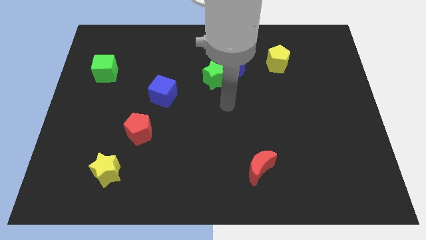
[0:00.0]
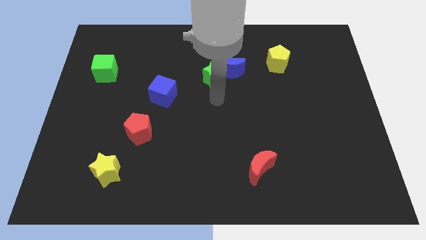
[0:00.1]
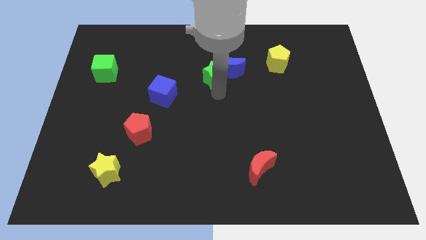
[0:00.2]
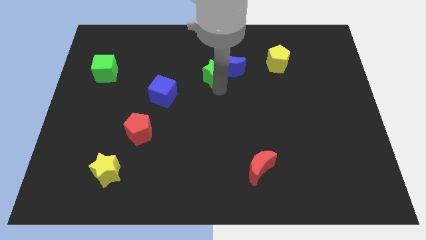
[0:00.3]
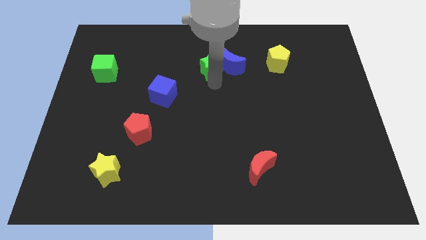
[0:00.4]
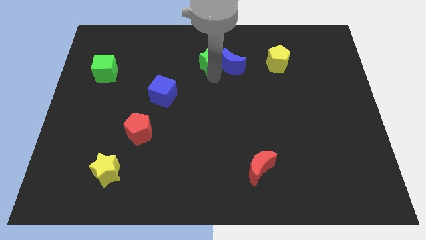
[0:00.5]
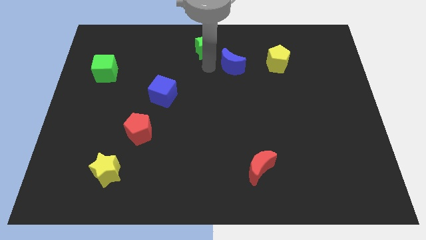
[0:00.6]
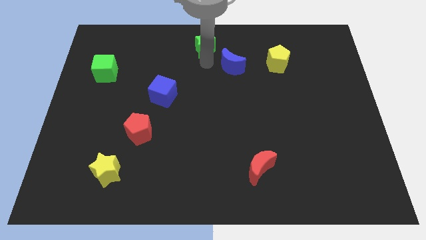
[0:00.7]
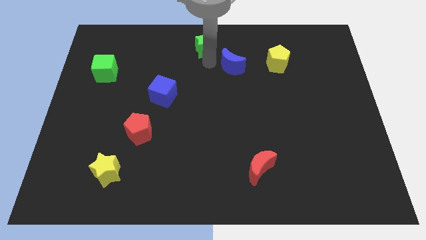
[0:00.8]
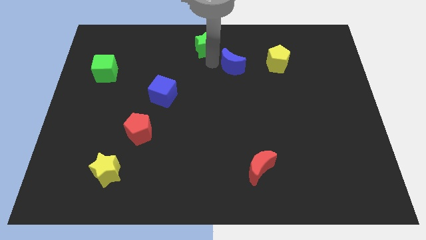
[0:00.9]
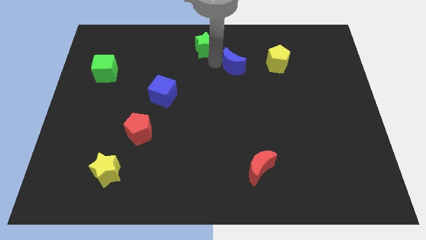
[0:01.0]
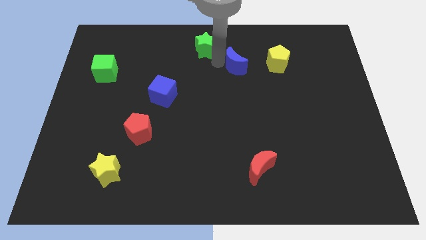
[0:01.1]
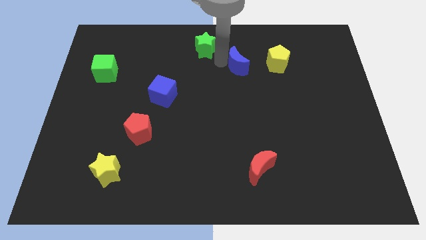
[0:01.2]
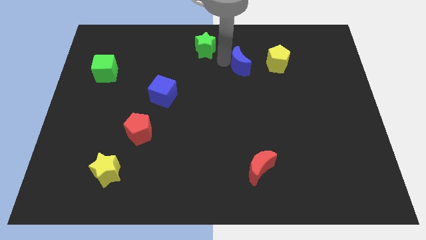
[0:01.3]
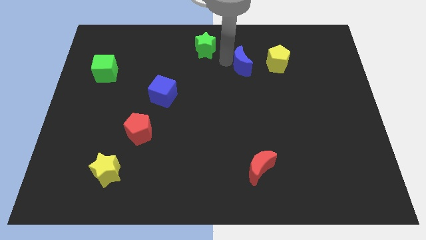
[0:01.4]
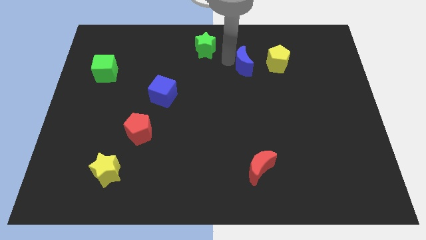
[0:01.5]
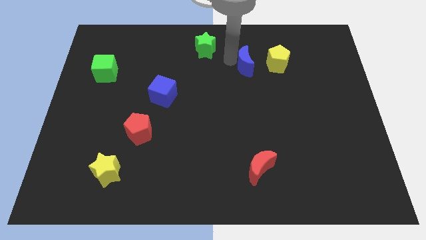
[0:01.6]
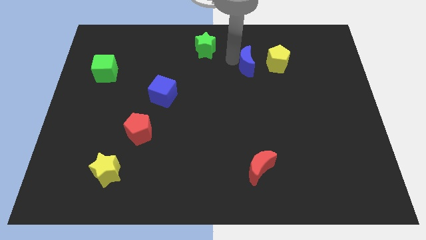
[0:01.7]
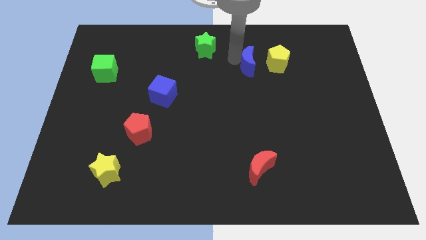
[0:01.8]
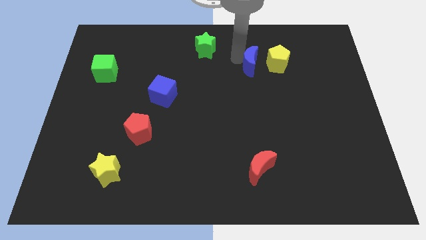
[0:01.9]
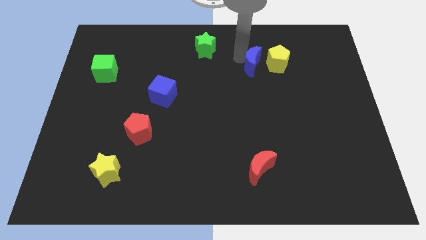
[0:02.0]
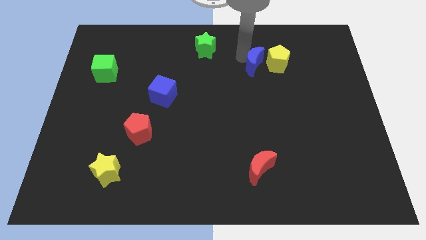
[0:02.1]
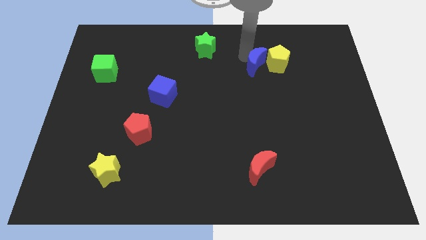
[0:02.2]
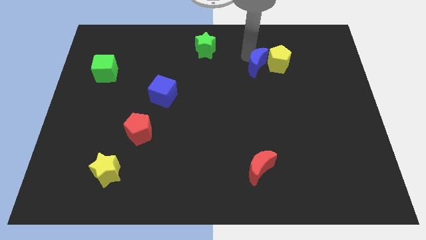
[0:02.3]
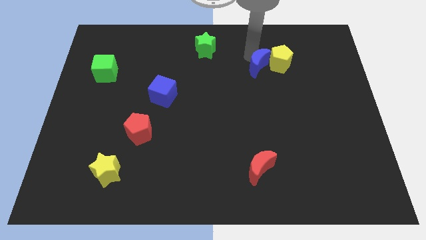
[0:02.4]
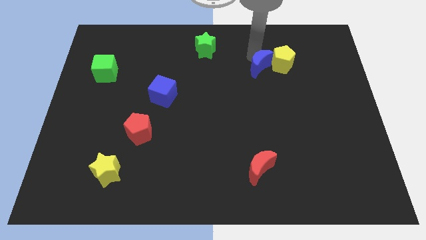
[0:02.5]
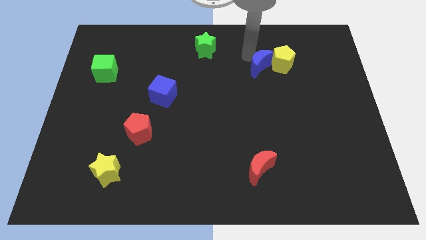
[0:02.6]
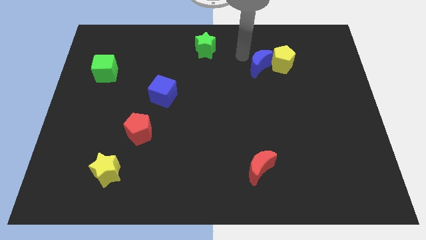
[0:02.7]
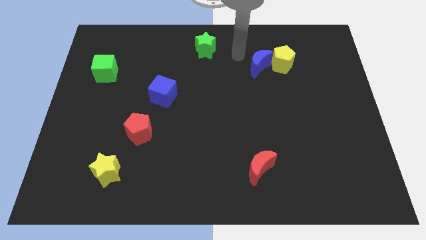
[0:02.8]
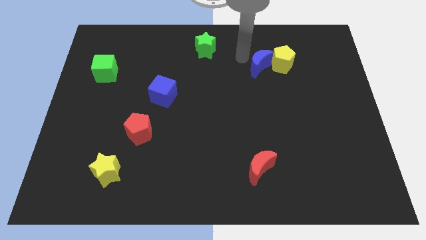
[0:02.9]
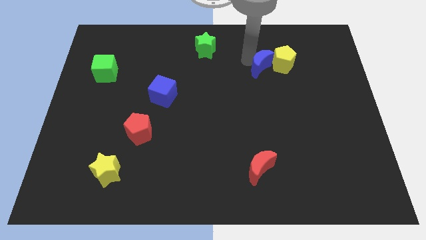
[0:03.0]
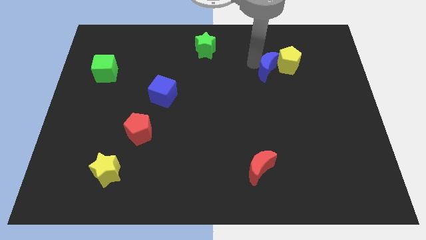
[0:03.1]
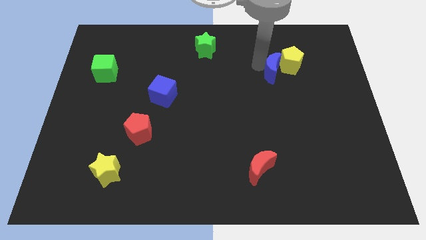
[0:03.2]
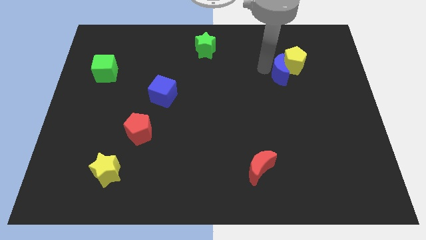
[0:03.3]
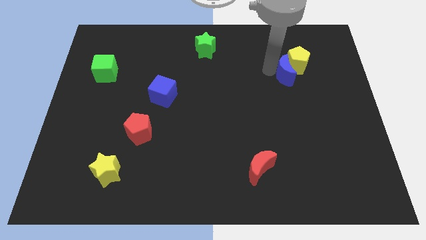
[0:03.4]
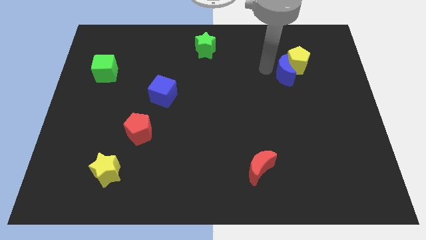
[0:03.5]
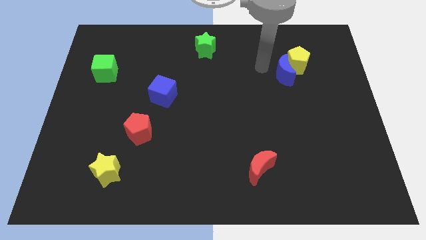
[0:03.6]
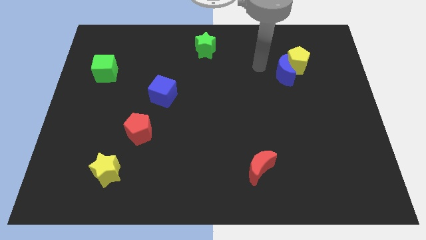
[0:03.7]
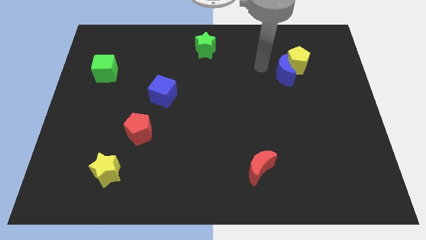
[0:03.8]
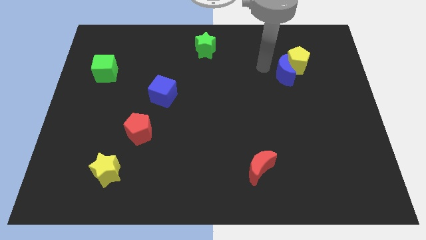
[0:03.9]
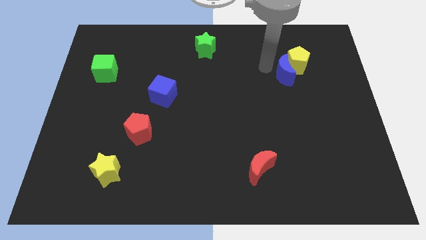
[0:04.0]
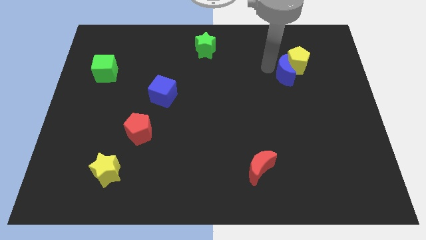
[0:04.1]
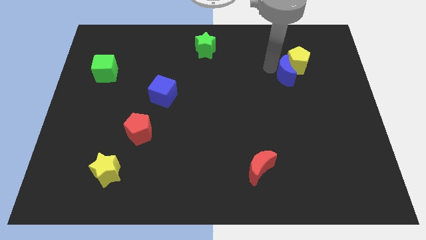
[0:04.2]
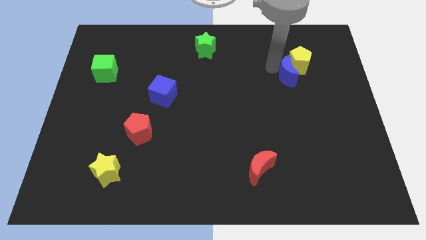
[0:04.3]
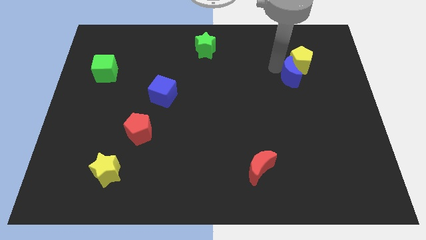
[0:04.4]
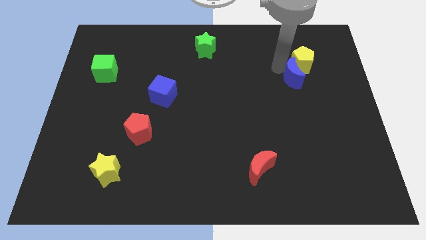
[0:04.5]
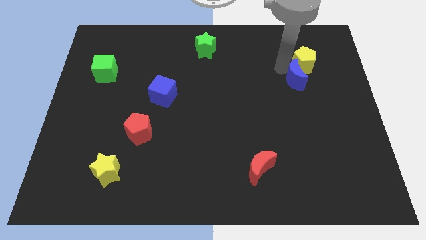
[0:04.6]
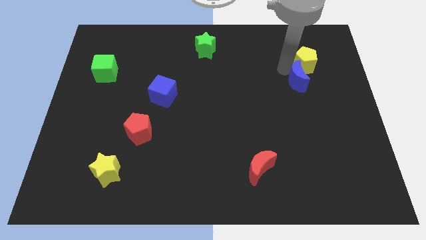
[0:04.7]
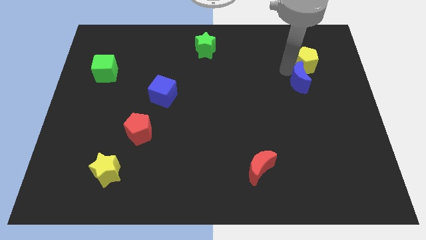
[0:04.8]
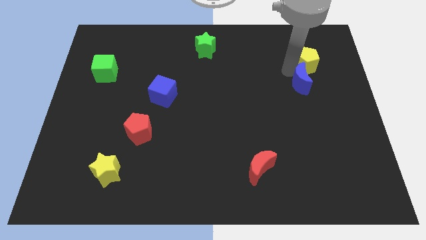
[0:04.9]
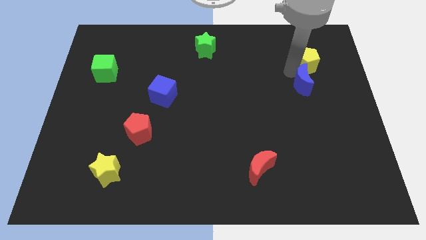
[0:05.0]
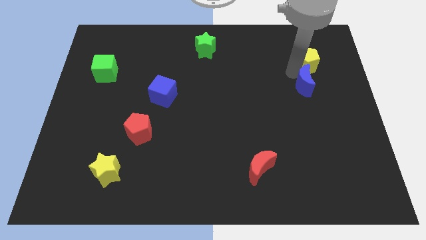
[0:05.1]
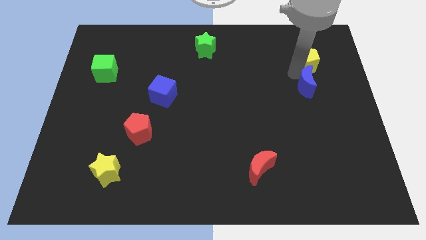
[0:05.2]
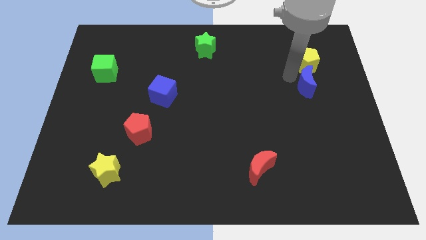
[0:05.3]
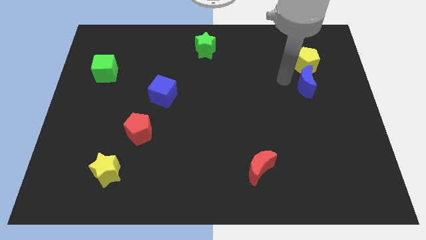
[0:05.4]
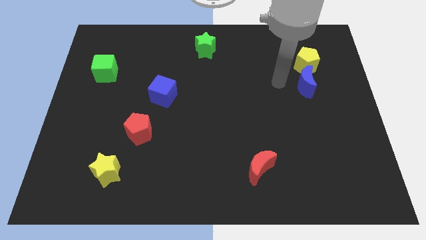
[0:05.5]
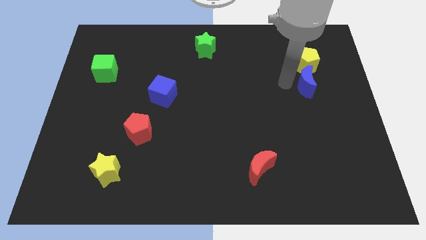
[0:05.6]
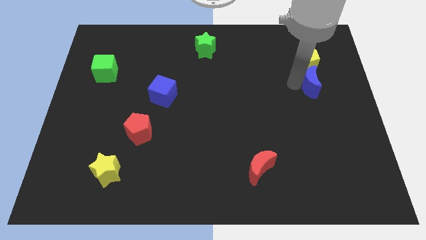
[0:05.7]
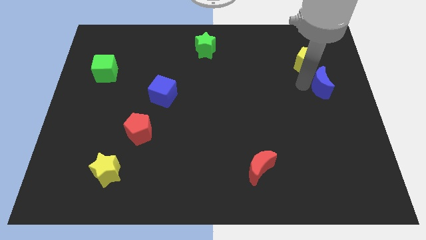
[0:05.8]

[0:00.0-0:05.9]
push the blue moon to the right side of the board

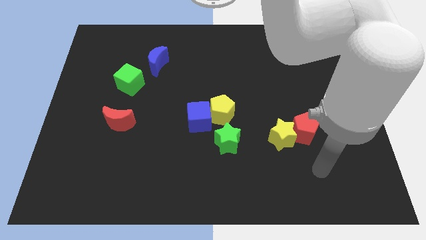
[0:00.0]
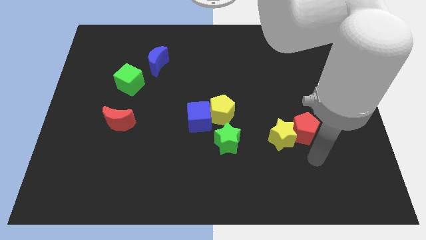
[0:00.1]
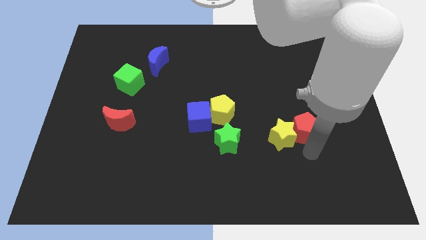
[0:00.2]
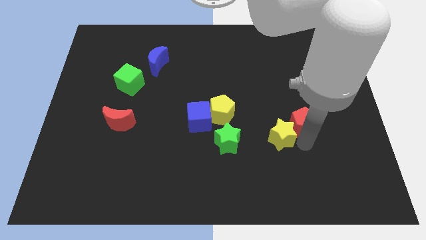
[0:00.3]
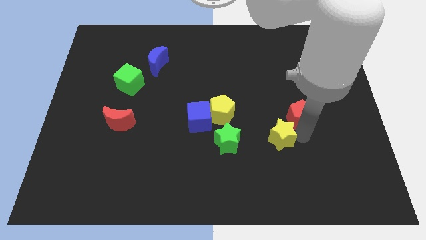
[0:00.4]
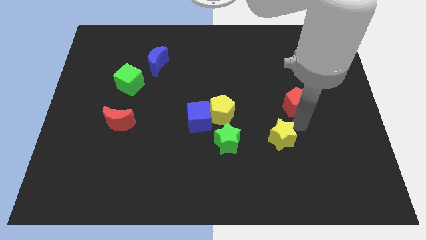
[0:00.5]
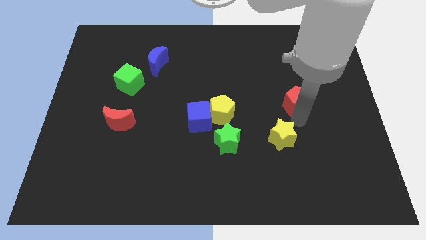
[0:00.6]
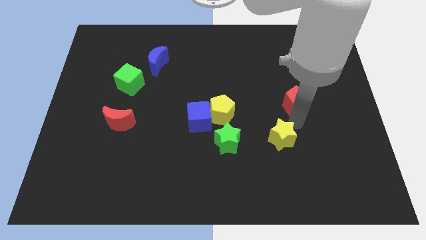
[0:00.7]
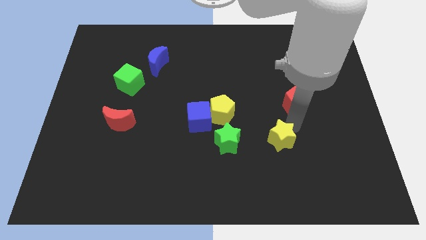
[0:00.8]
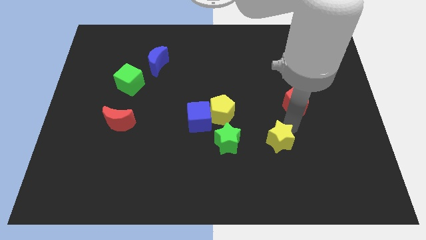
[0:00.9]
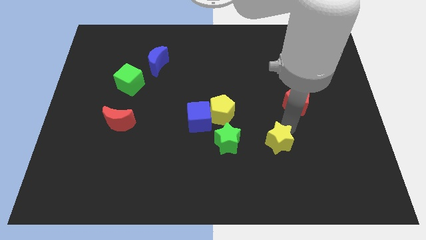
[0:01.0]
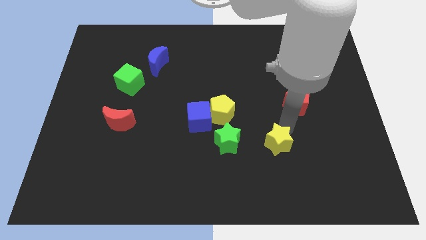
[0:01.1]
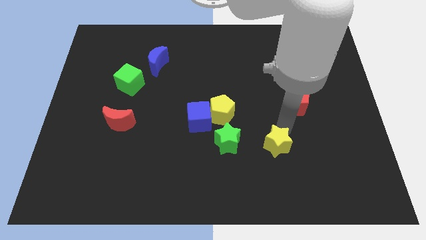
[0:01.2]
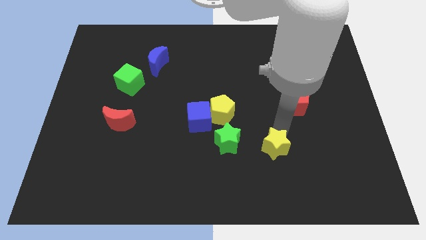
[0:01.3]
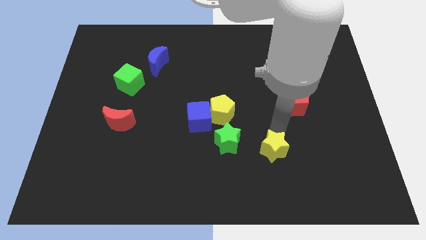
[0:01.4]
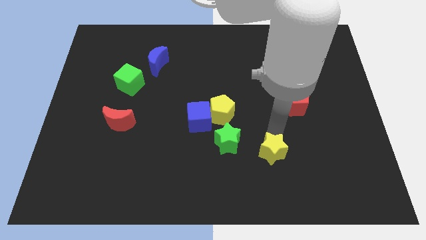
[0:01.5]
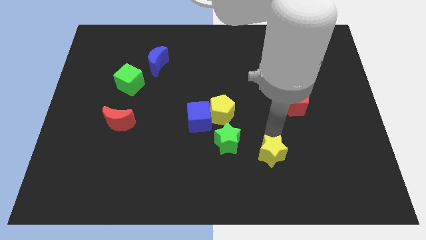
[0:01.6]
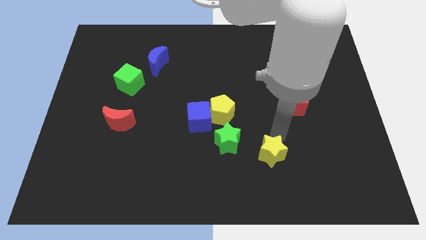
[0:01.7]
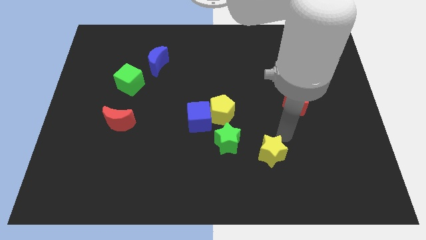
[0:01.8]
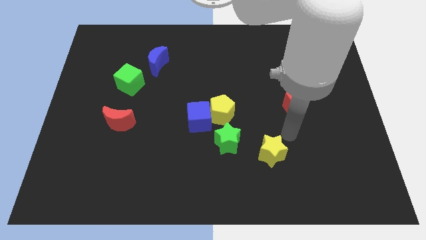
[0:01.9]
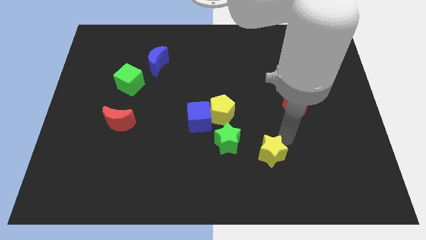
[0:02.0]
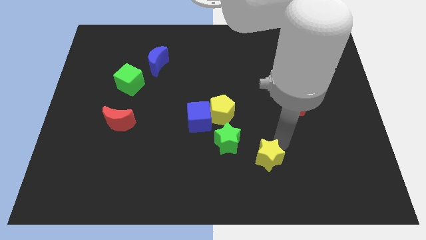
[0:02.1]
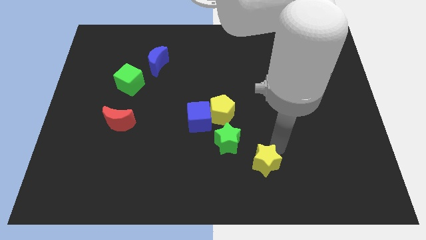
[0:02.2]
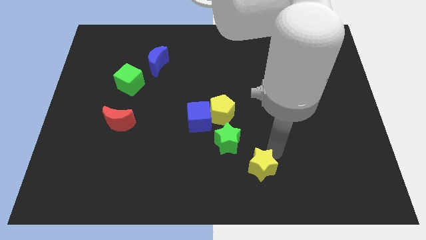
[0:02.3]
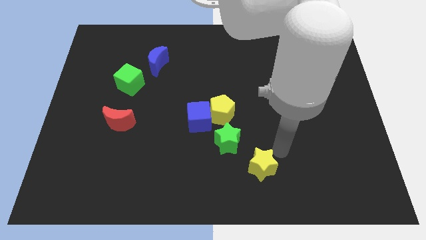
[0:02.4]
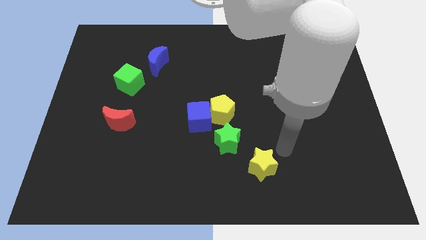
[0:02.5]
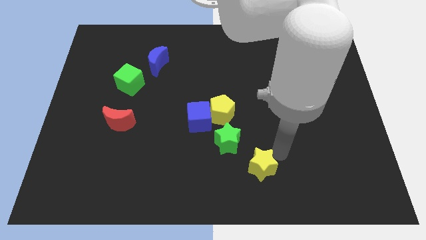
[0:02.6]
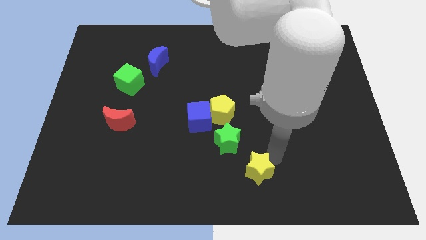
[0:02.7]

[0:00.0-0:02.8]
put the yellow star to the bottom
